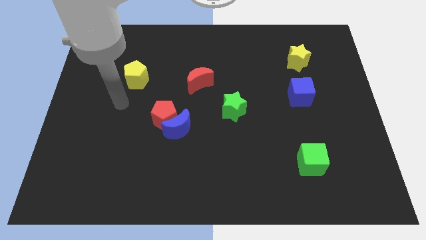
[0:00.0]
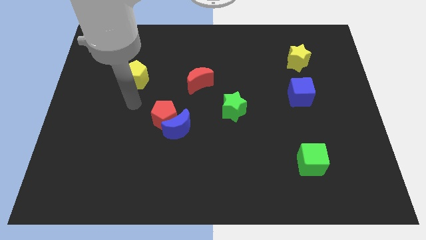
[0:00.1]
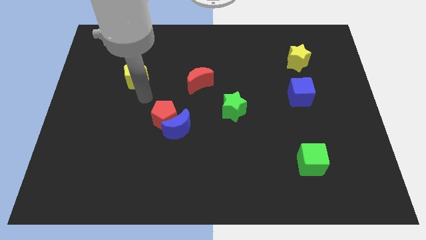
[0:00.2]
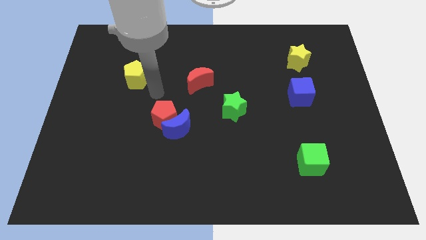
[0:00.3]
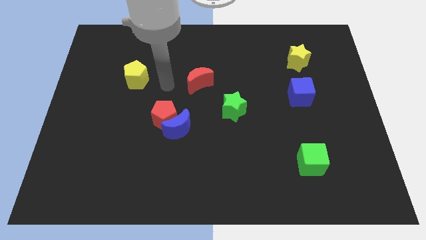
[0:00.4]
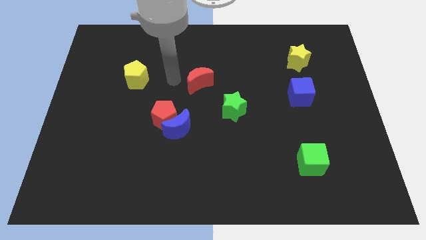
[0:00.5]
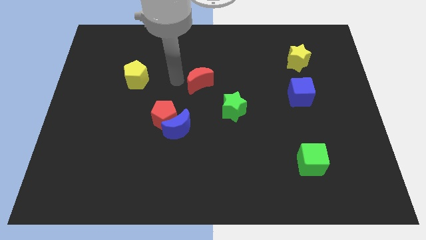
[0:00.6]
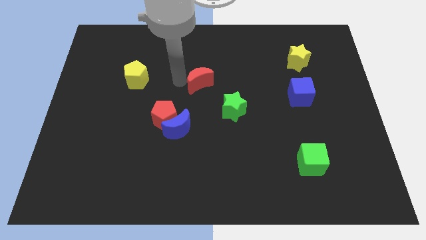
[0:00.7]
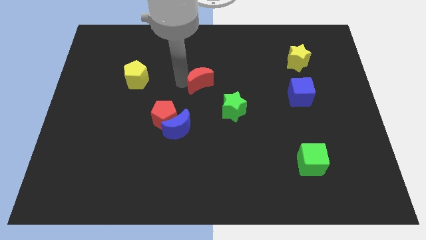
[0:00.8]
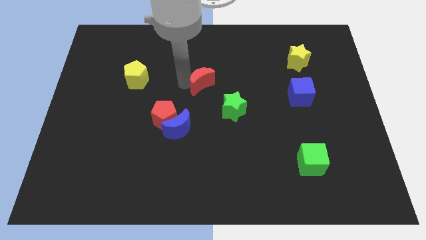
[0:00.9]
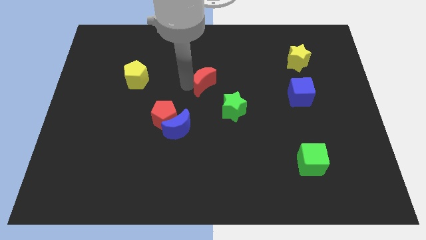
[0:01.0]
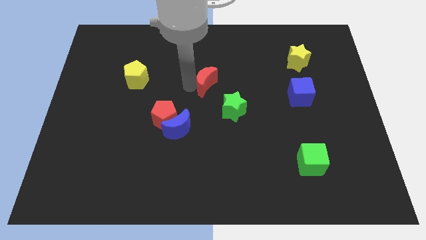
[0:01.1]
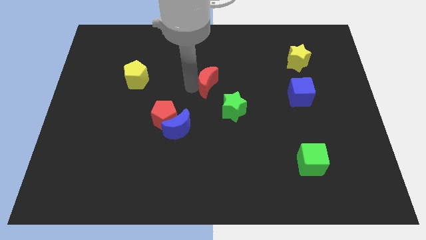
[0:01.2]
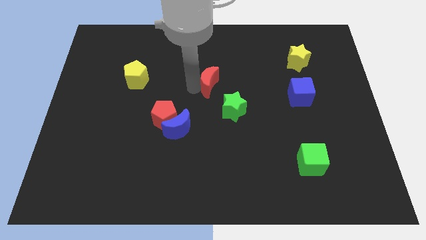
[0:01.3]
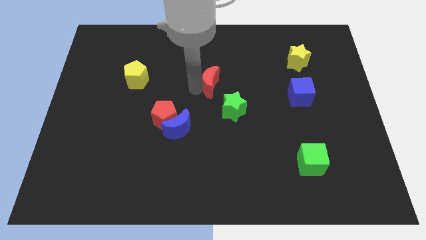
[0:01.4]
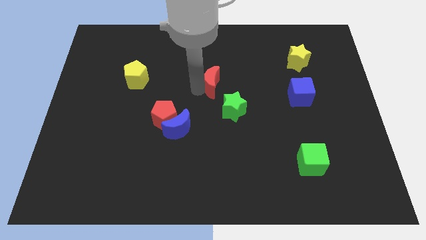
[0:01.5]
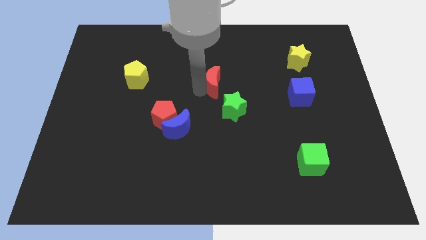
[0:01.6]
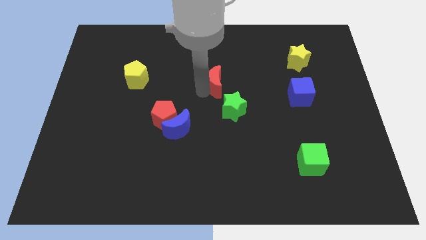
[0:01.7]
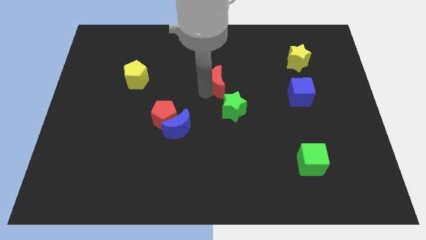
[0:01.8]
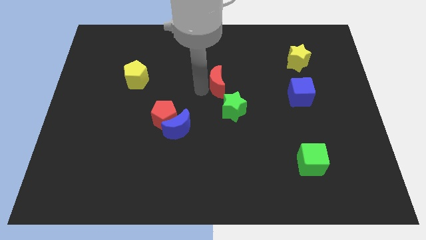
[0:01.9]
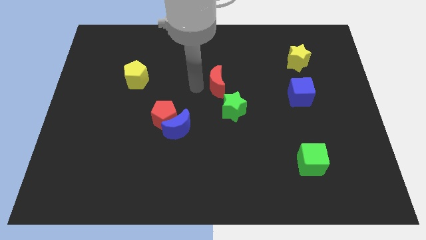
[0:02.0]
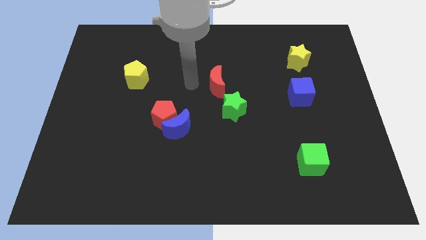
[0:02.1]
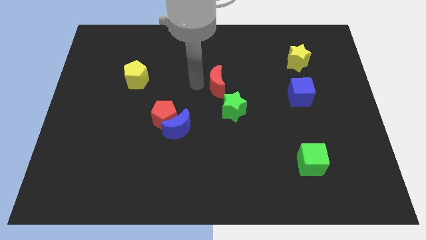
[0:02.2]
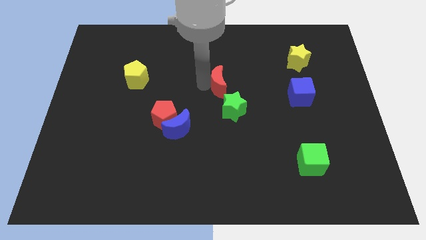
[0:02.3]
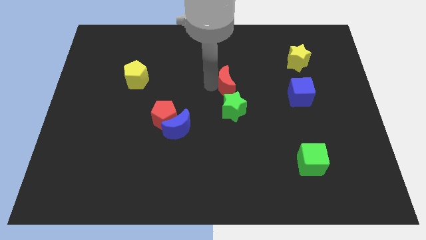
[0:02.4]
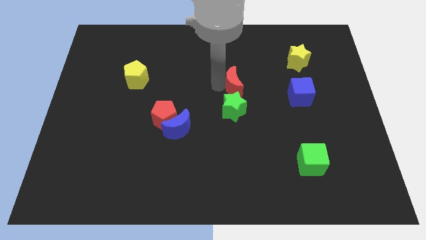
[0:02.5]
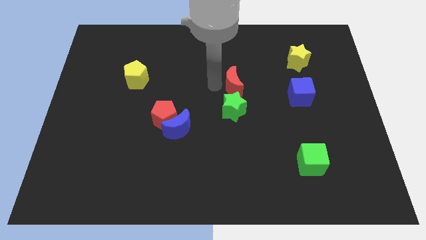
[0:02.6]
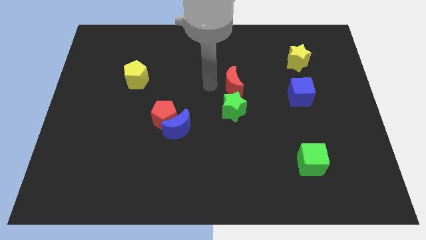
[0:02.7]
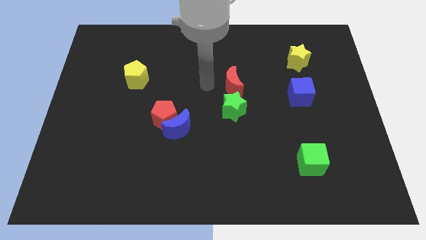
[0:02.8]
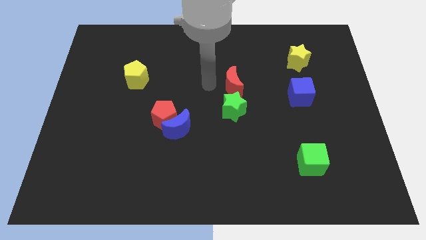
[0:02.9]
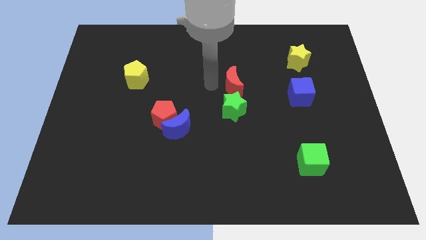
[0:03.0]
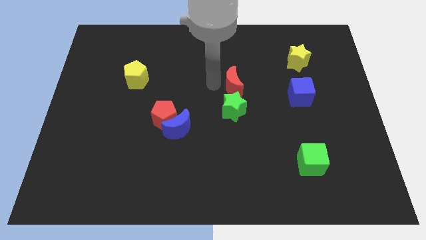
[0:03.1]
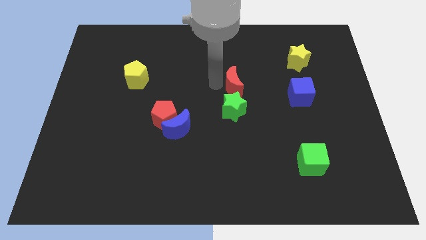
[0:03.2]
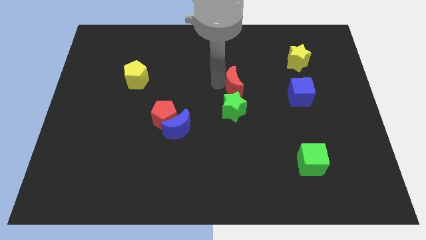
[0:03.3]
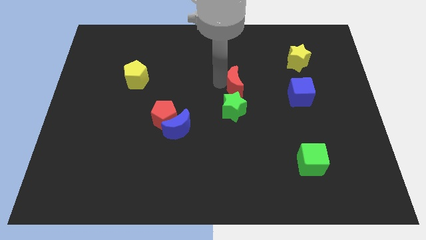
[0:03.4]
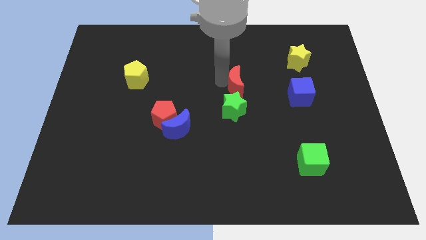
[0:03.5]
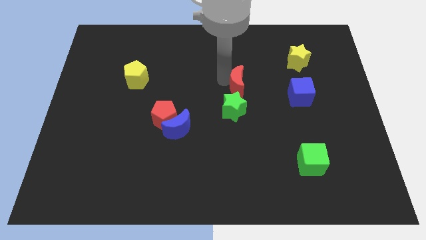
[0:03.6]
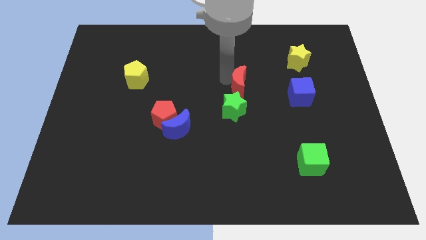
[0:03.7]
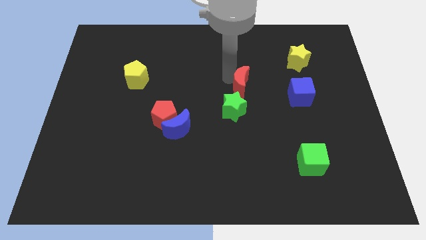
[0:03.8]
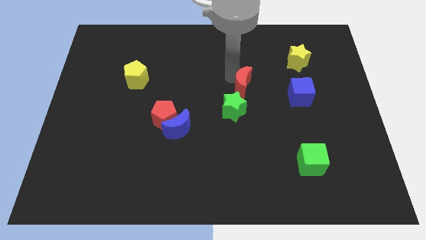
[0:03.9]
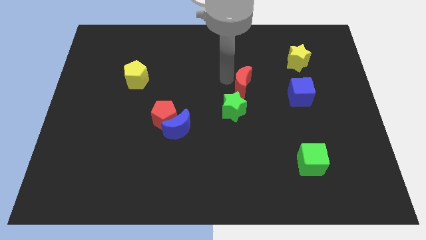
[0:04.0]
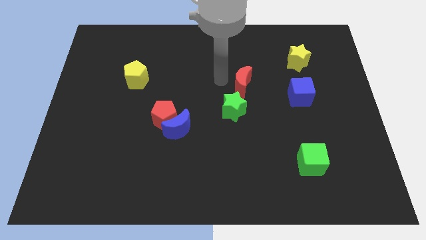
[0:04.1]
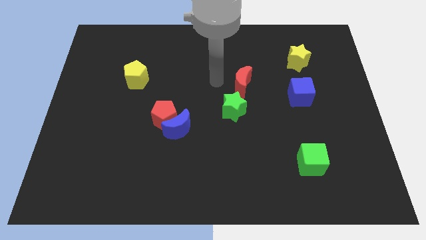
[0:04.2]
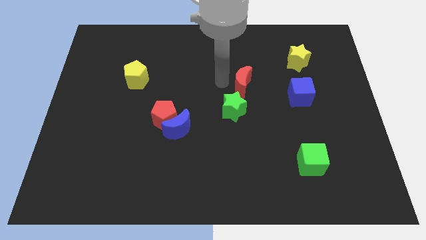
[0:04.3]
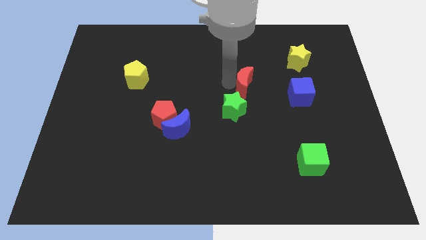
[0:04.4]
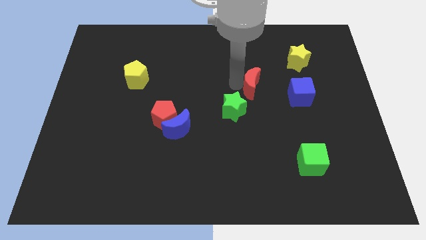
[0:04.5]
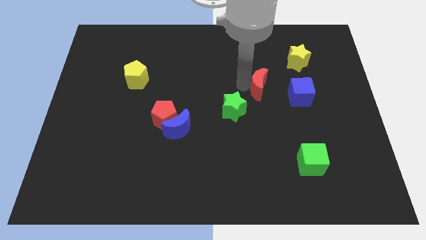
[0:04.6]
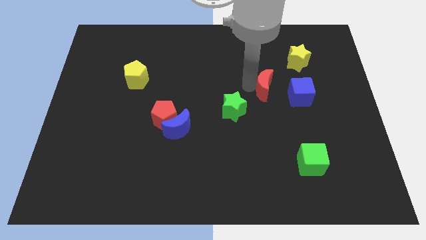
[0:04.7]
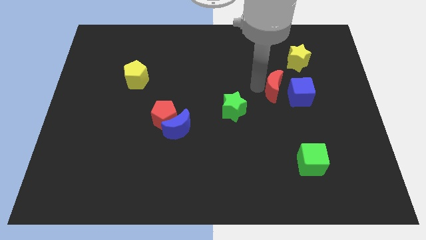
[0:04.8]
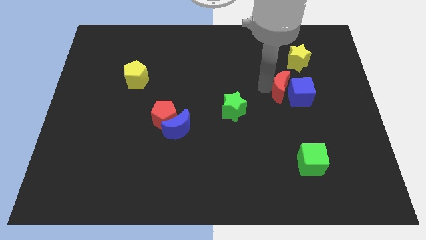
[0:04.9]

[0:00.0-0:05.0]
move the red moon to the blue cube

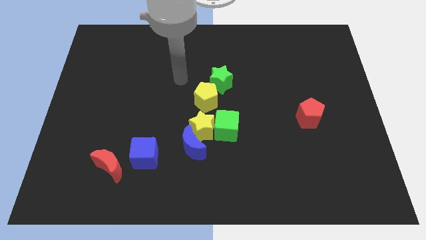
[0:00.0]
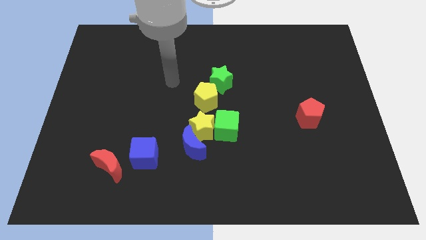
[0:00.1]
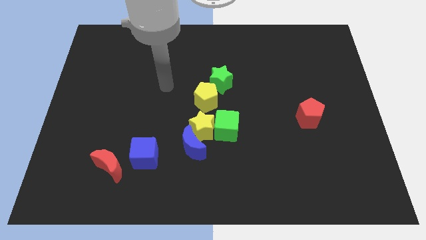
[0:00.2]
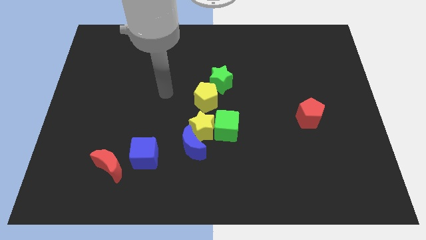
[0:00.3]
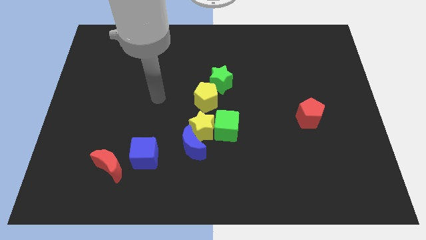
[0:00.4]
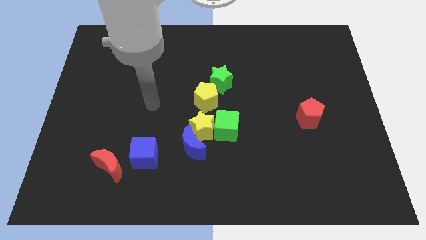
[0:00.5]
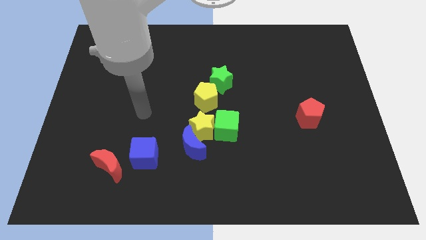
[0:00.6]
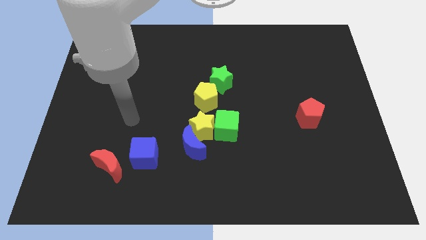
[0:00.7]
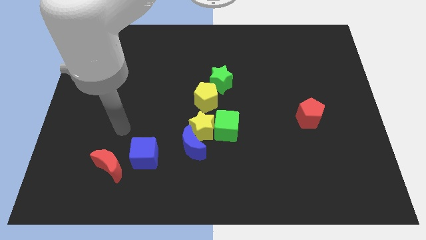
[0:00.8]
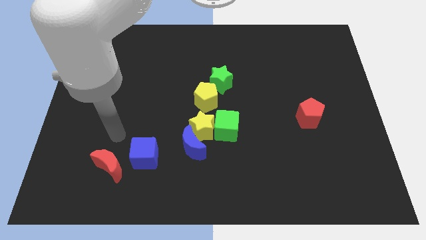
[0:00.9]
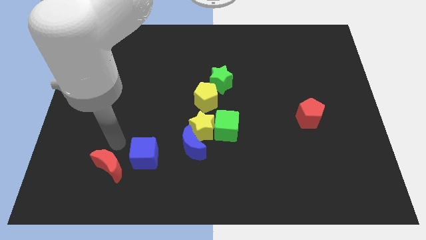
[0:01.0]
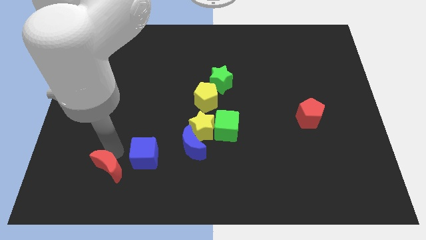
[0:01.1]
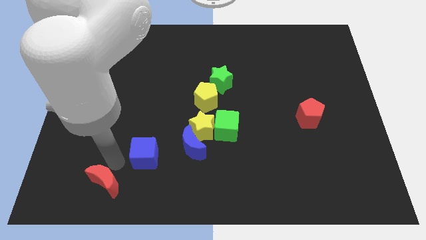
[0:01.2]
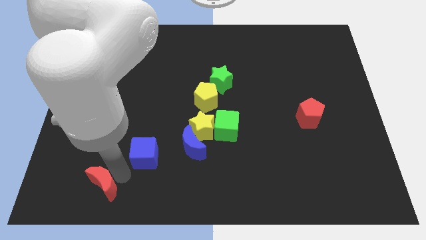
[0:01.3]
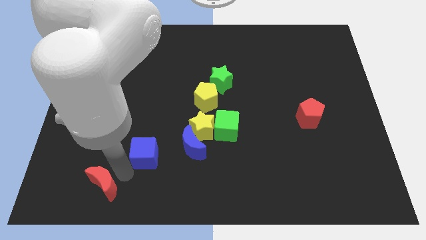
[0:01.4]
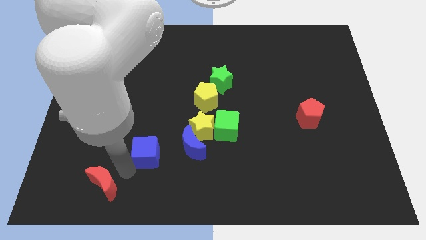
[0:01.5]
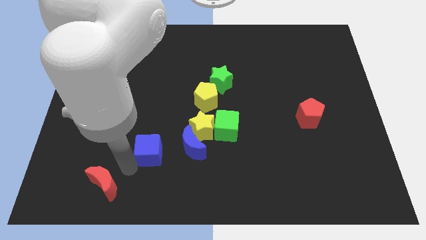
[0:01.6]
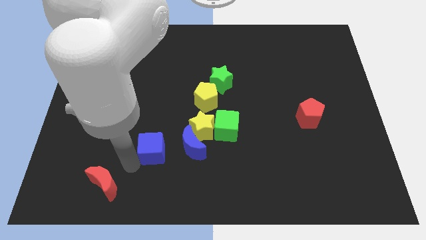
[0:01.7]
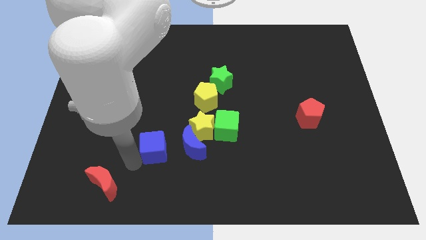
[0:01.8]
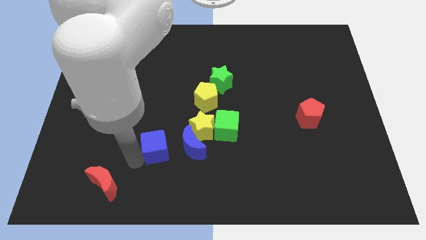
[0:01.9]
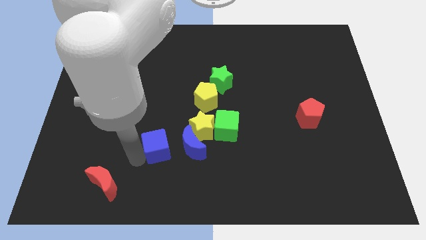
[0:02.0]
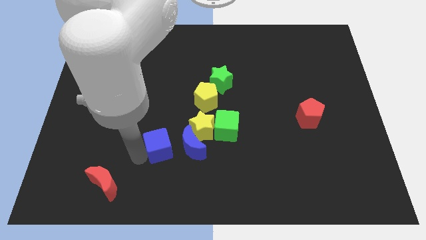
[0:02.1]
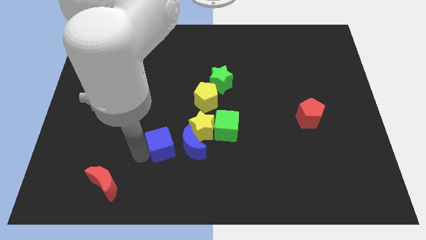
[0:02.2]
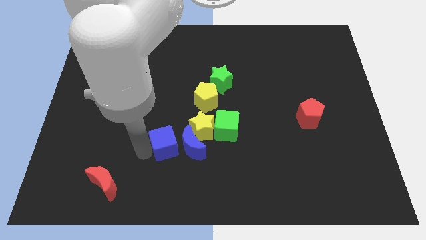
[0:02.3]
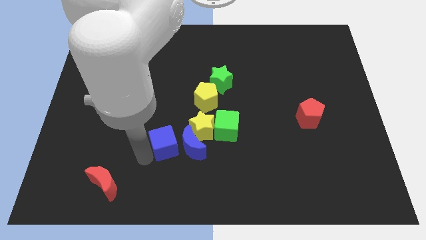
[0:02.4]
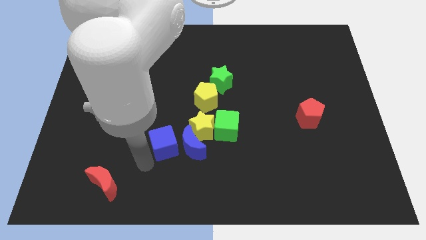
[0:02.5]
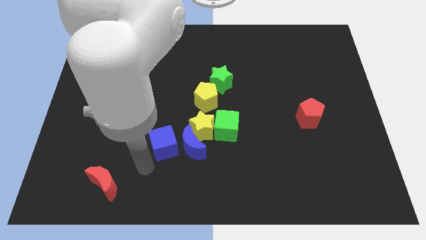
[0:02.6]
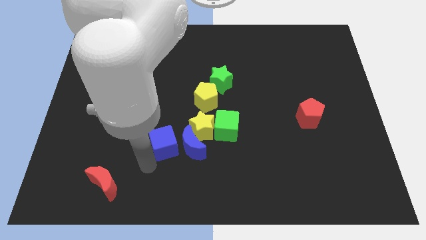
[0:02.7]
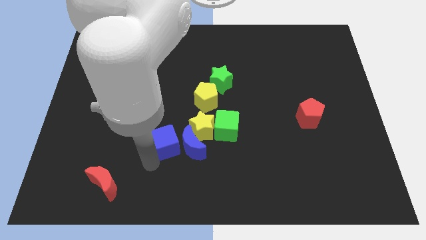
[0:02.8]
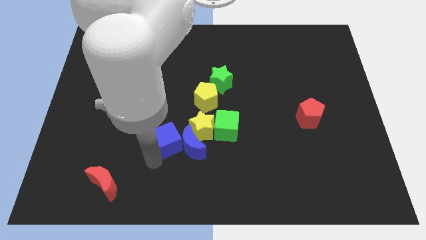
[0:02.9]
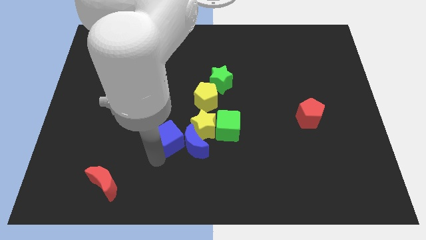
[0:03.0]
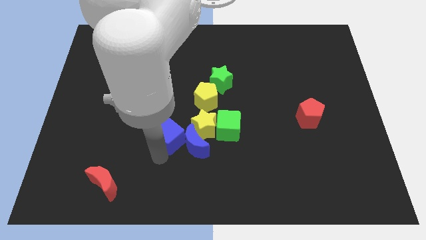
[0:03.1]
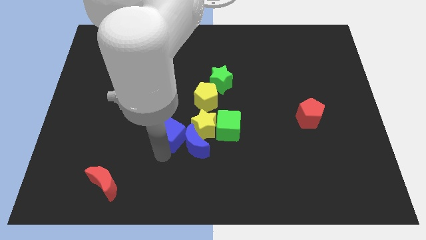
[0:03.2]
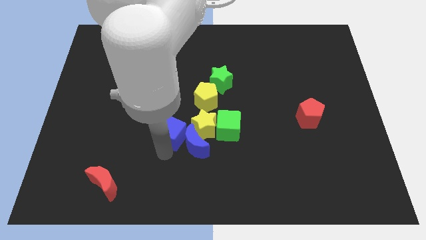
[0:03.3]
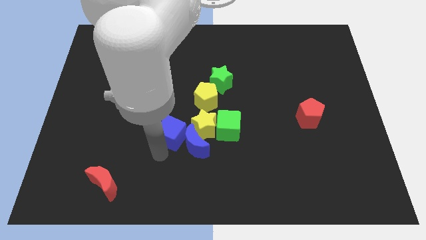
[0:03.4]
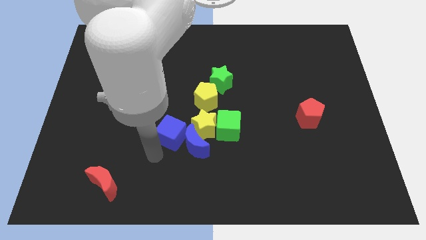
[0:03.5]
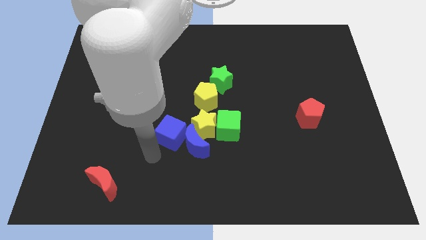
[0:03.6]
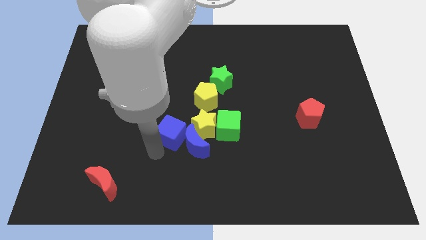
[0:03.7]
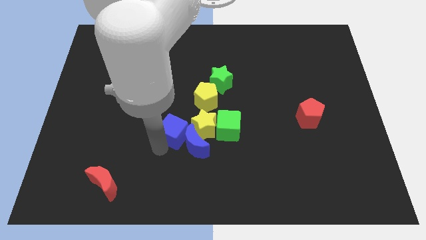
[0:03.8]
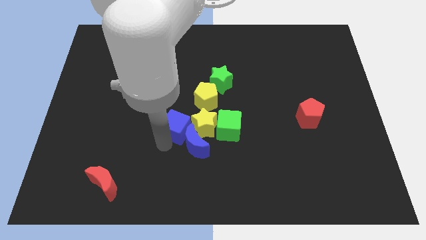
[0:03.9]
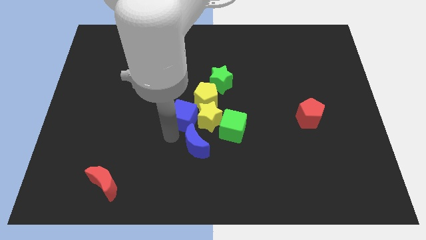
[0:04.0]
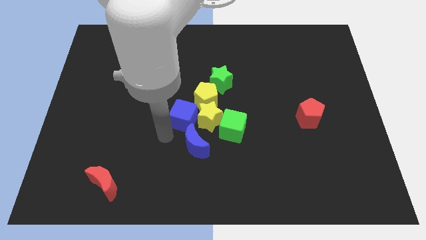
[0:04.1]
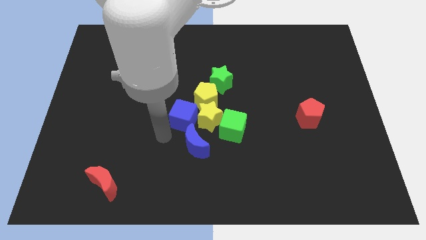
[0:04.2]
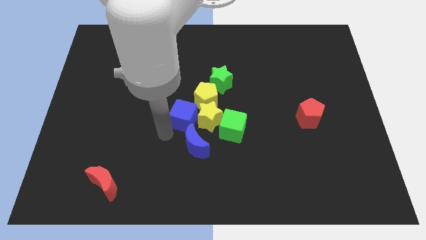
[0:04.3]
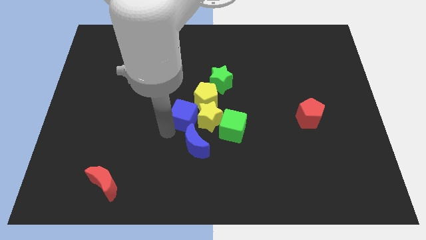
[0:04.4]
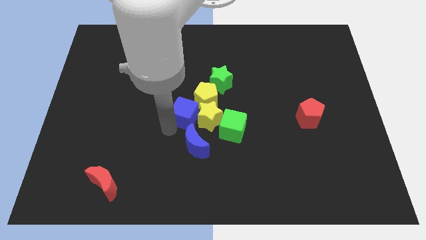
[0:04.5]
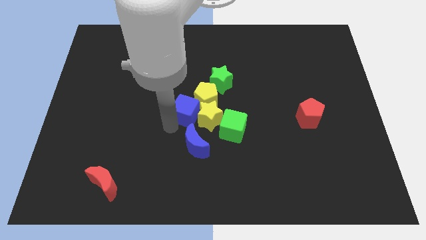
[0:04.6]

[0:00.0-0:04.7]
move the blue cube close to the yellow pentagon
